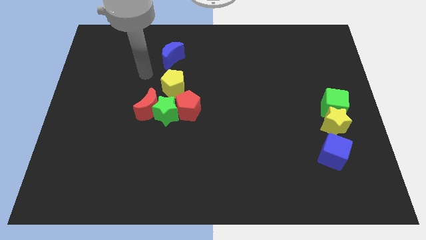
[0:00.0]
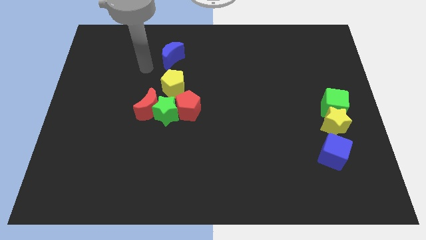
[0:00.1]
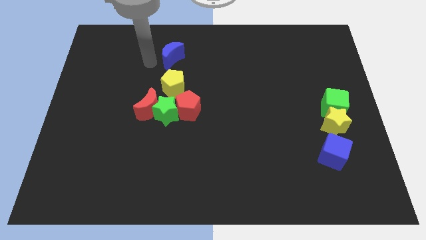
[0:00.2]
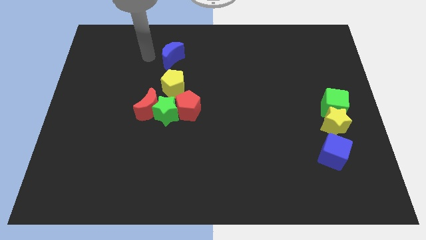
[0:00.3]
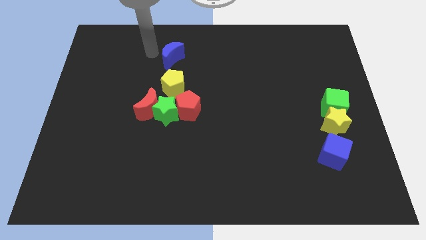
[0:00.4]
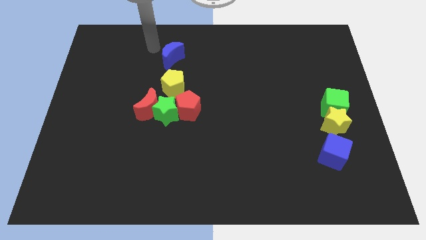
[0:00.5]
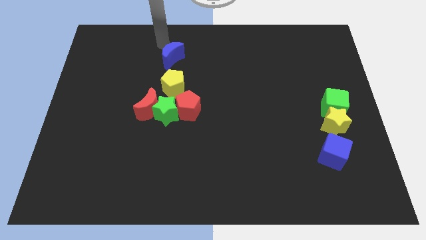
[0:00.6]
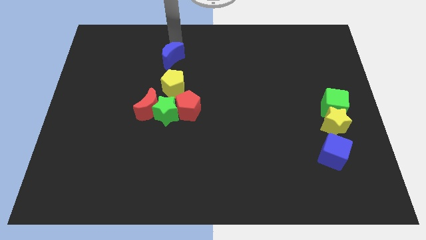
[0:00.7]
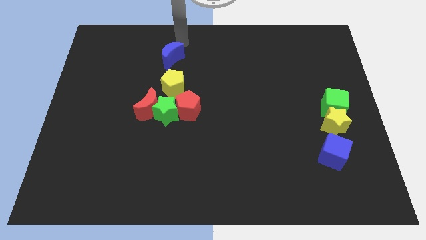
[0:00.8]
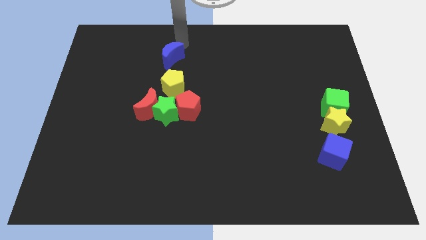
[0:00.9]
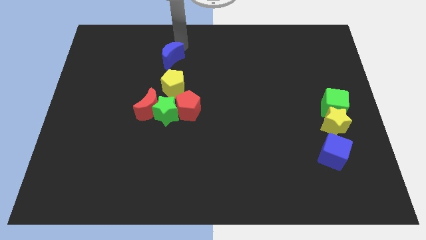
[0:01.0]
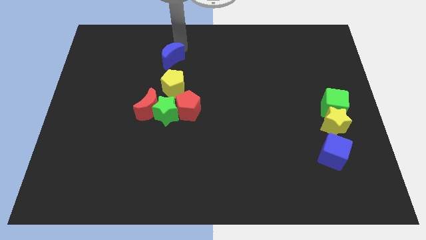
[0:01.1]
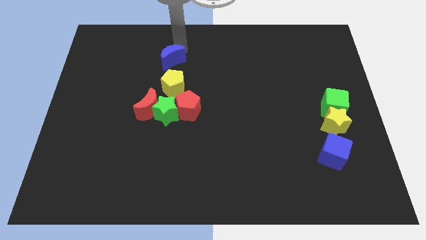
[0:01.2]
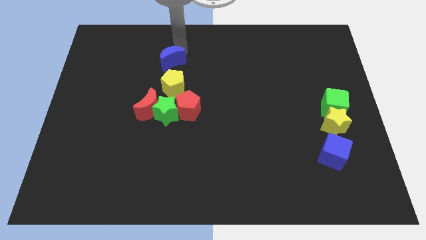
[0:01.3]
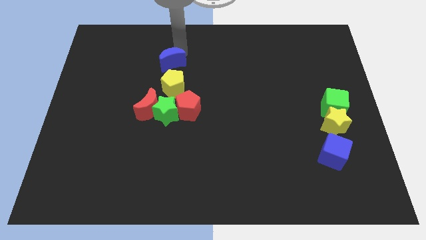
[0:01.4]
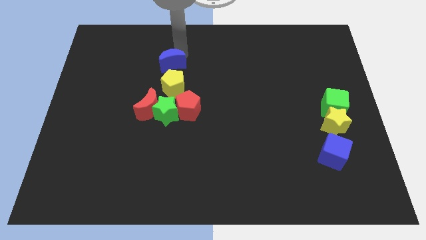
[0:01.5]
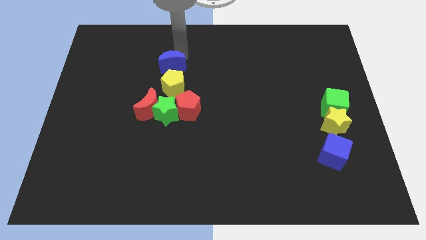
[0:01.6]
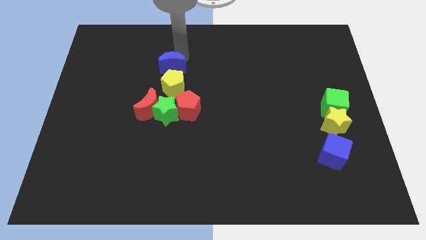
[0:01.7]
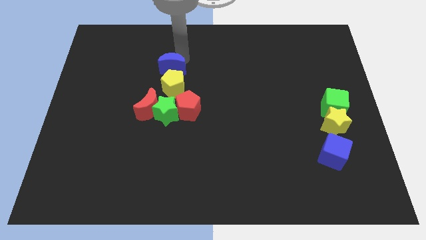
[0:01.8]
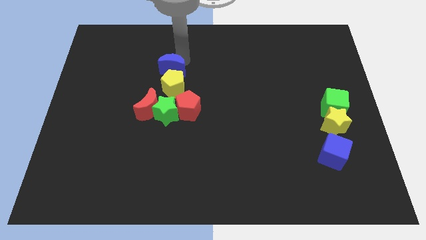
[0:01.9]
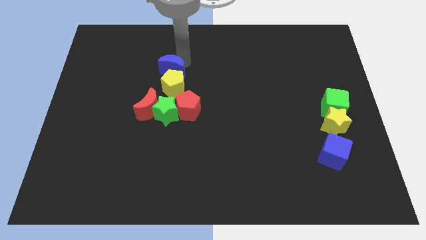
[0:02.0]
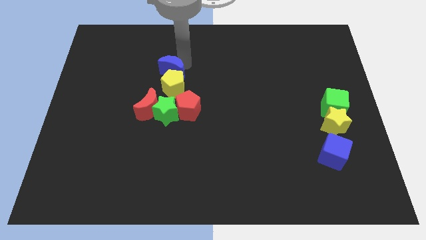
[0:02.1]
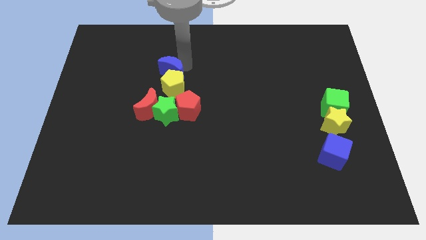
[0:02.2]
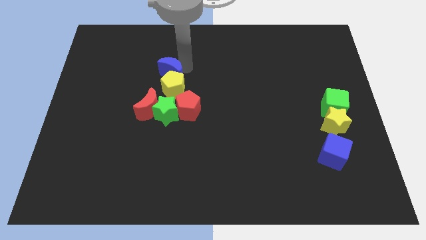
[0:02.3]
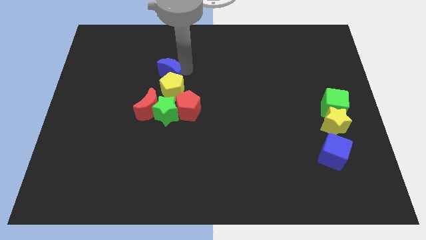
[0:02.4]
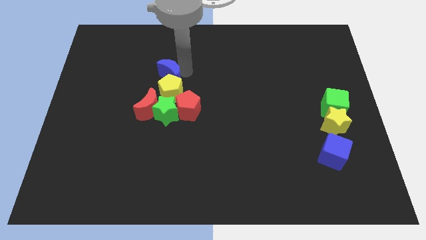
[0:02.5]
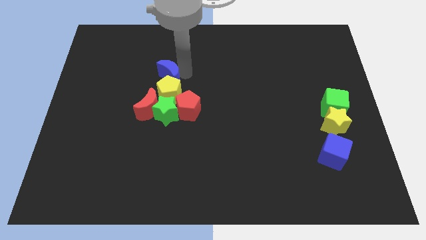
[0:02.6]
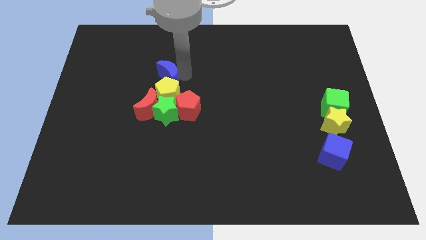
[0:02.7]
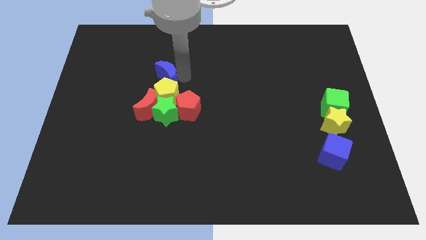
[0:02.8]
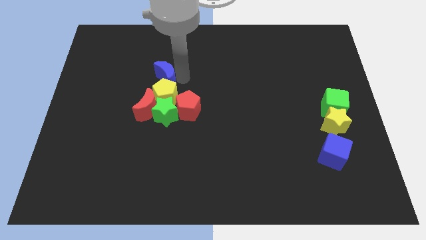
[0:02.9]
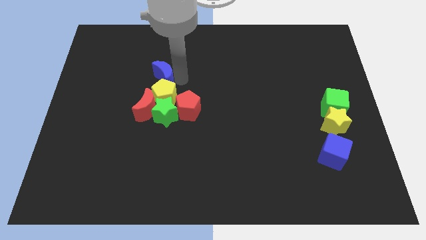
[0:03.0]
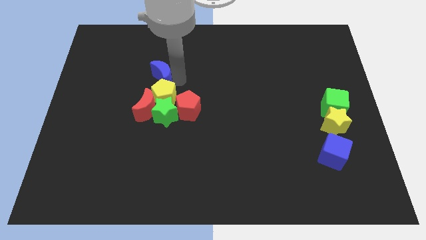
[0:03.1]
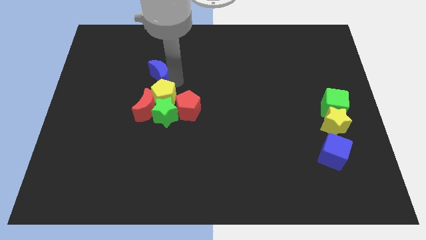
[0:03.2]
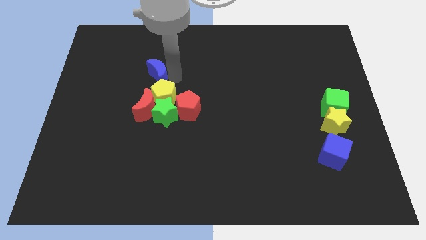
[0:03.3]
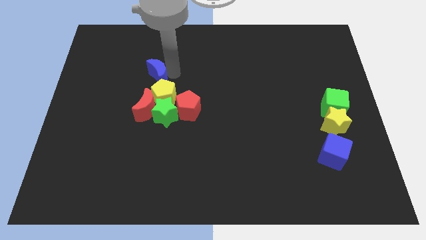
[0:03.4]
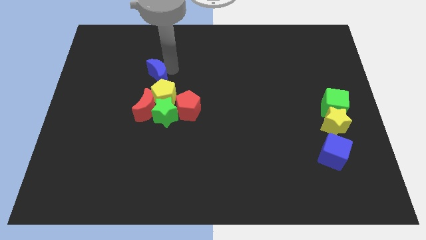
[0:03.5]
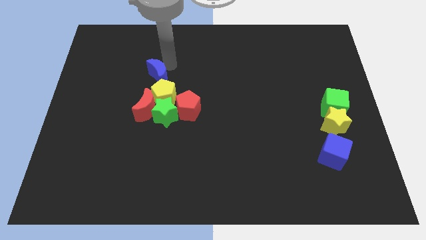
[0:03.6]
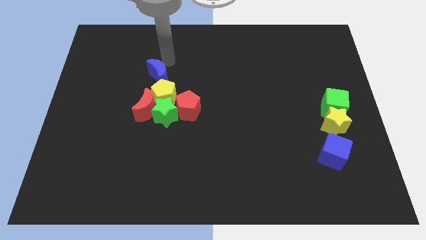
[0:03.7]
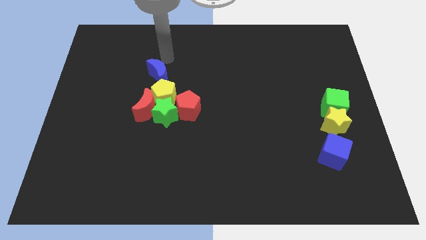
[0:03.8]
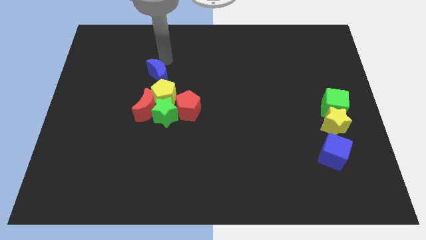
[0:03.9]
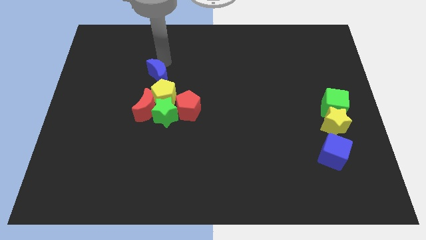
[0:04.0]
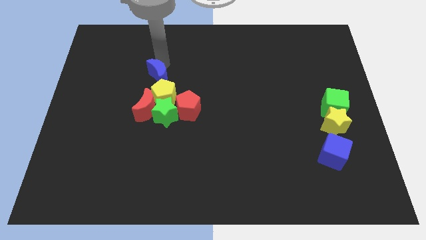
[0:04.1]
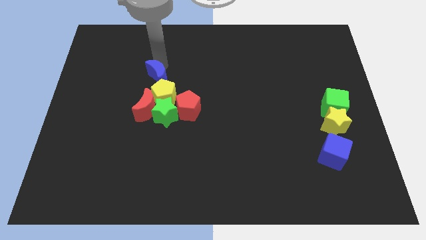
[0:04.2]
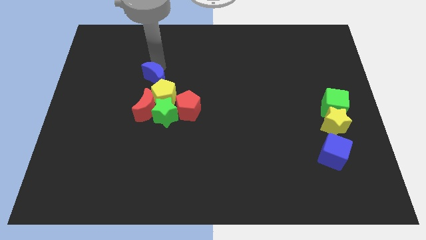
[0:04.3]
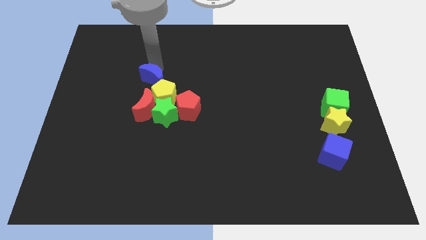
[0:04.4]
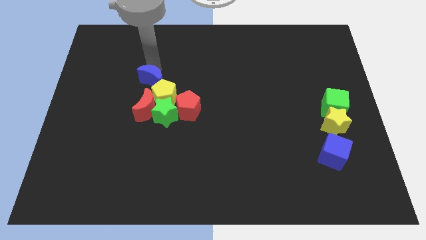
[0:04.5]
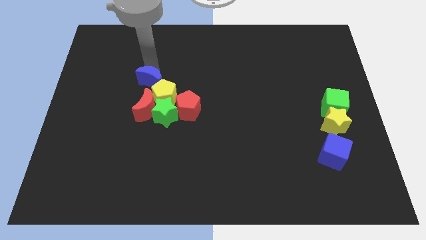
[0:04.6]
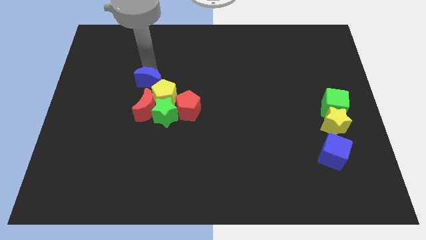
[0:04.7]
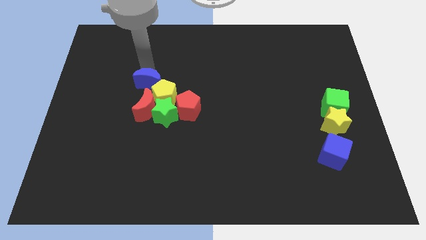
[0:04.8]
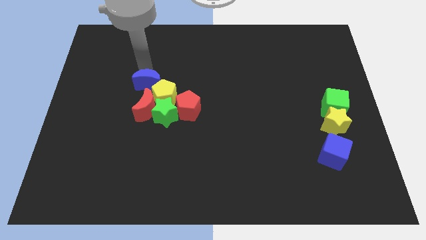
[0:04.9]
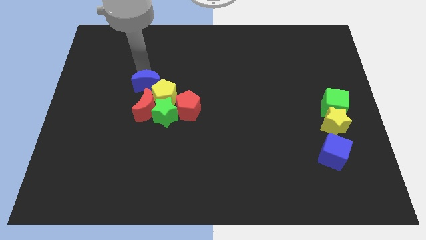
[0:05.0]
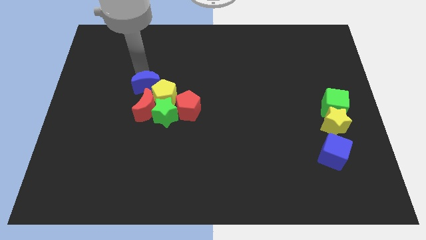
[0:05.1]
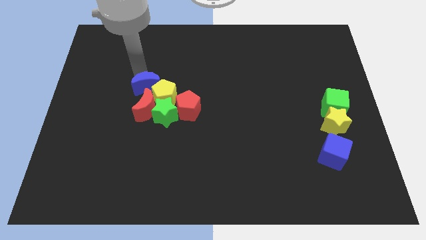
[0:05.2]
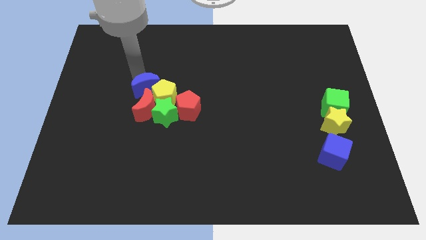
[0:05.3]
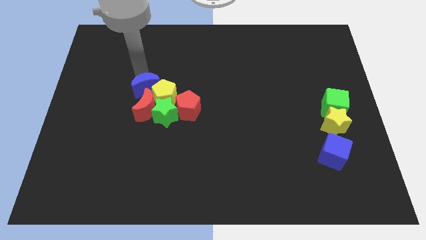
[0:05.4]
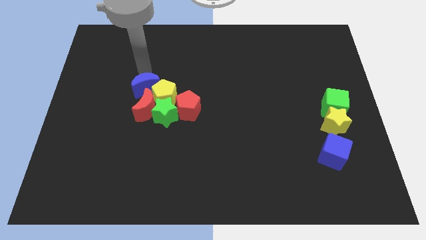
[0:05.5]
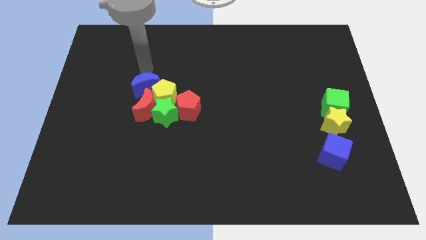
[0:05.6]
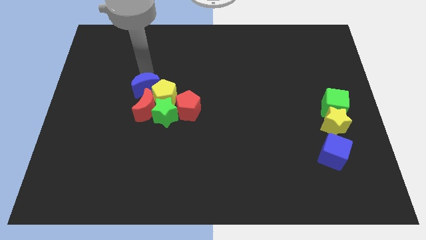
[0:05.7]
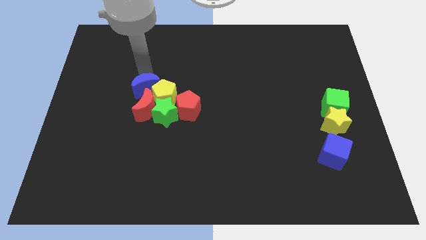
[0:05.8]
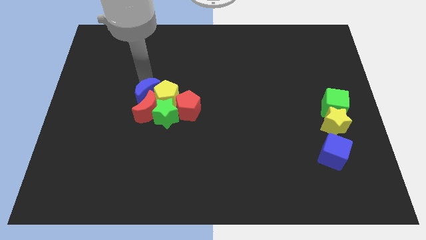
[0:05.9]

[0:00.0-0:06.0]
push the blue moon towards the red moon

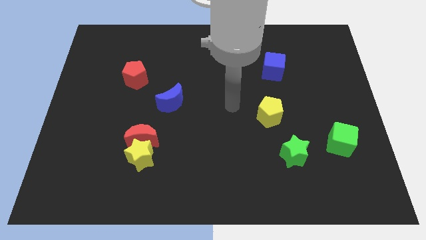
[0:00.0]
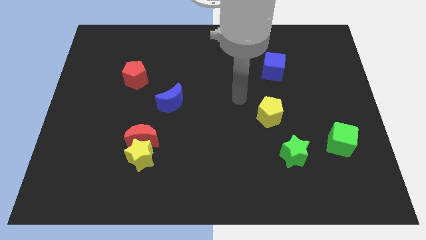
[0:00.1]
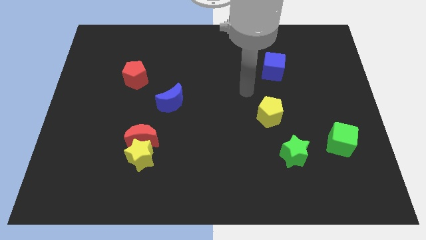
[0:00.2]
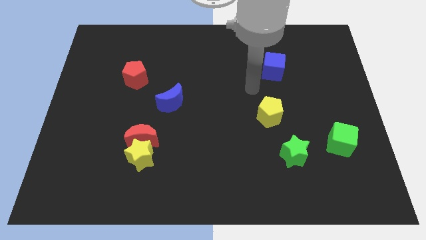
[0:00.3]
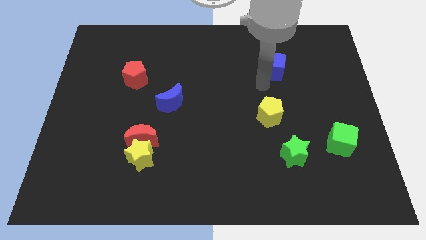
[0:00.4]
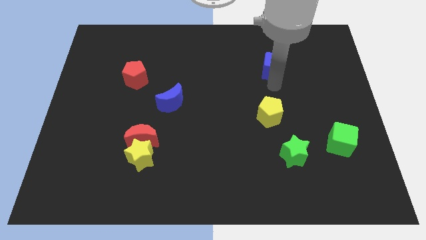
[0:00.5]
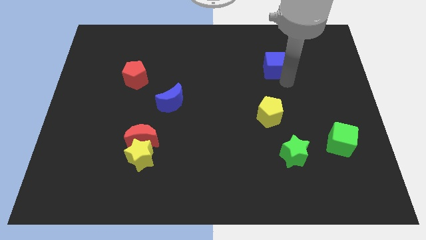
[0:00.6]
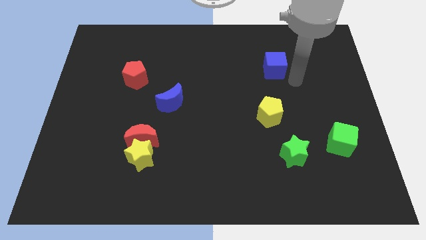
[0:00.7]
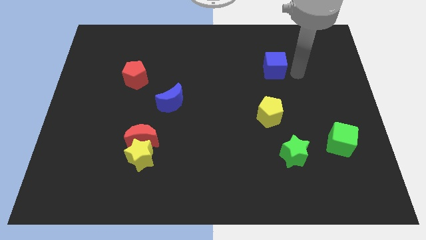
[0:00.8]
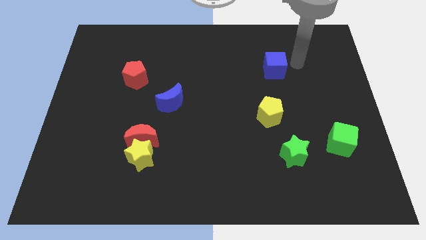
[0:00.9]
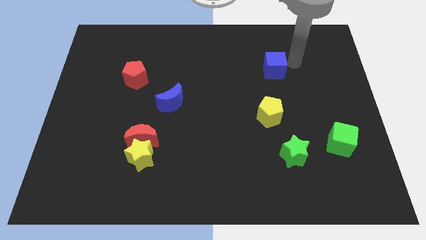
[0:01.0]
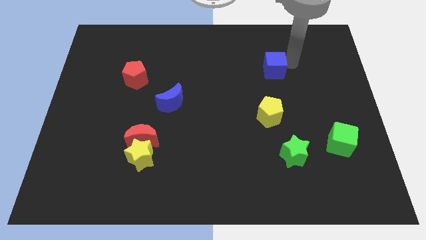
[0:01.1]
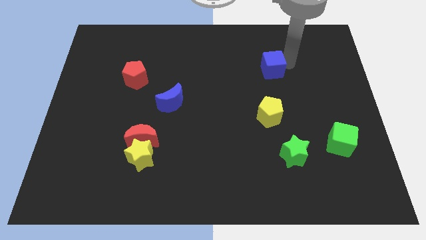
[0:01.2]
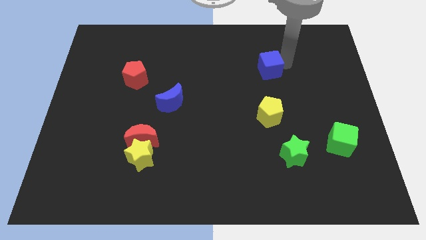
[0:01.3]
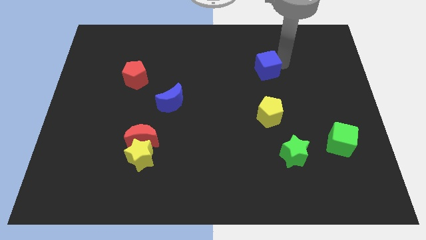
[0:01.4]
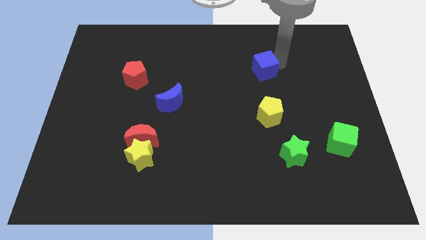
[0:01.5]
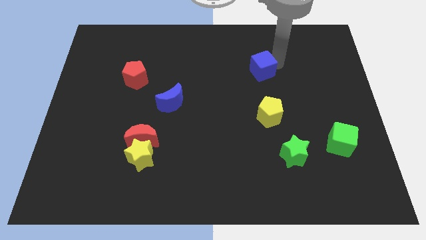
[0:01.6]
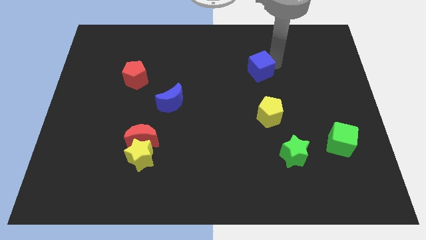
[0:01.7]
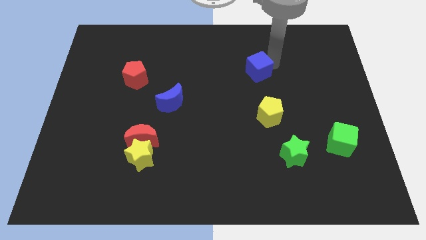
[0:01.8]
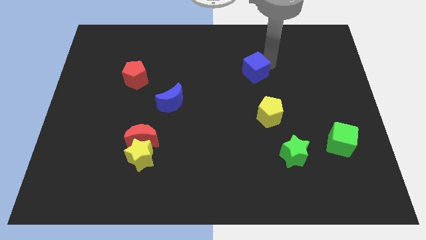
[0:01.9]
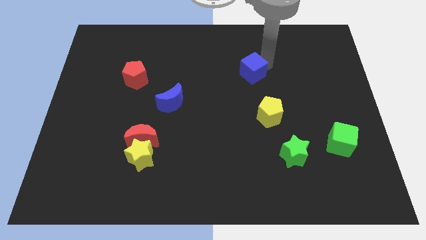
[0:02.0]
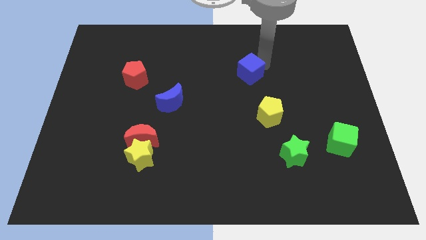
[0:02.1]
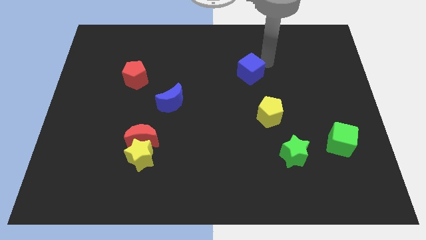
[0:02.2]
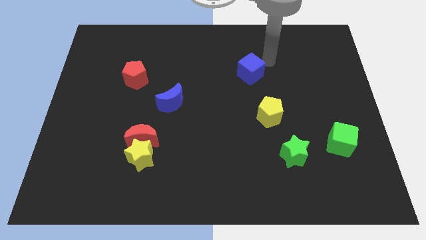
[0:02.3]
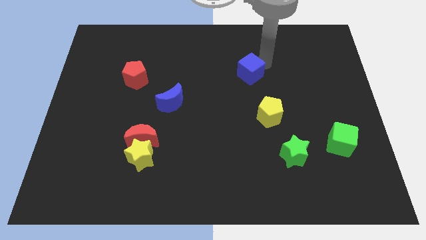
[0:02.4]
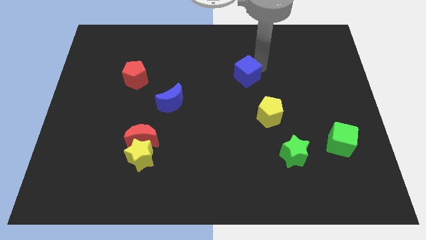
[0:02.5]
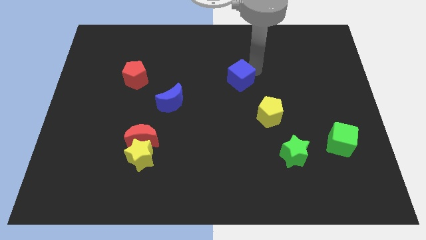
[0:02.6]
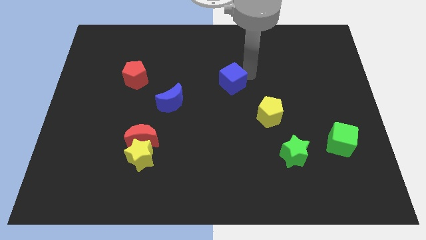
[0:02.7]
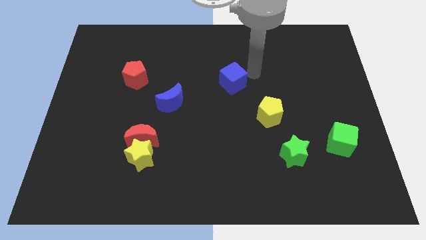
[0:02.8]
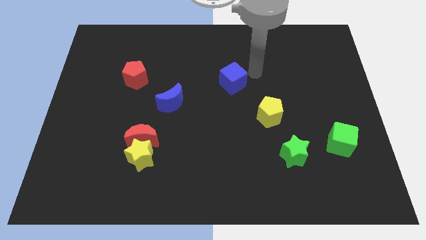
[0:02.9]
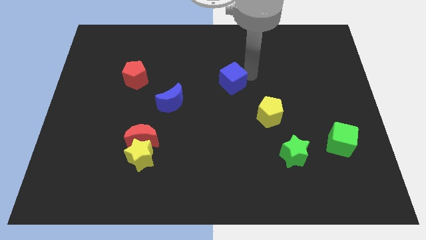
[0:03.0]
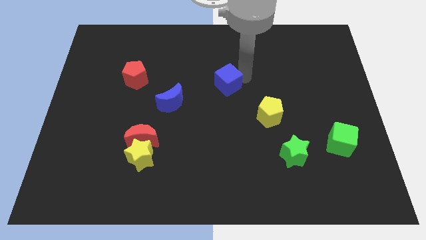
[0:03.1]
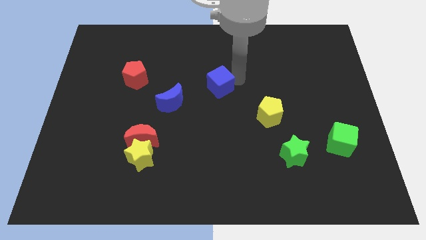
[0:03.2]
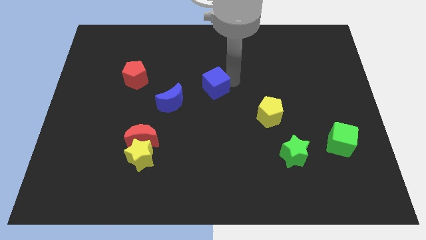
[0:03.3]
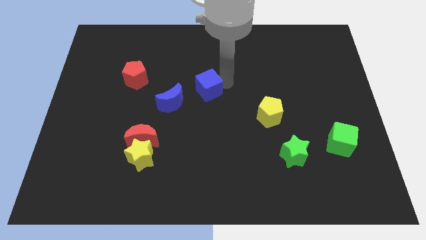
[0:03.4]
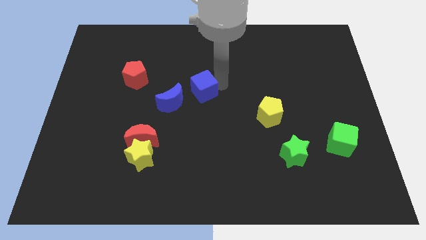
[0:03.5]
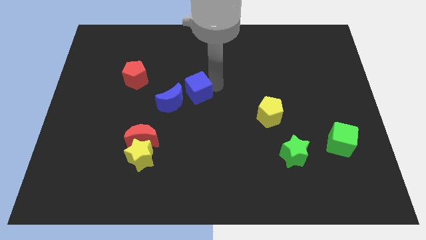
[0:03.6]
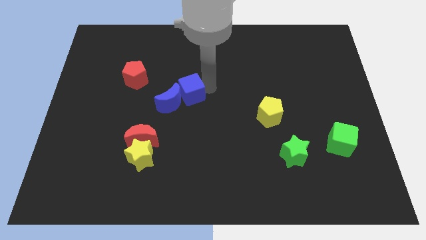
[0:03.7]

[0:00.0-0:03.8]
put the blue cube to the blue moon
